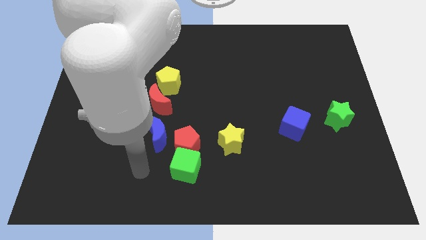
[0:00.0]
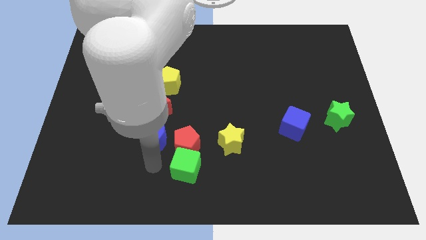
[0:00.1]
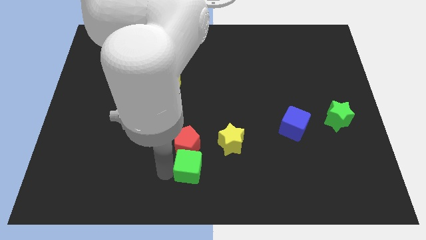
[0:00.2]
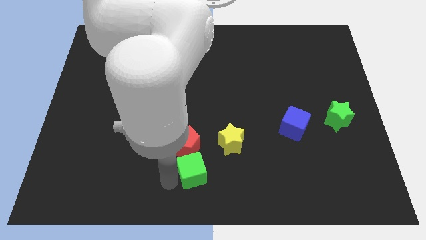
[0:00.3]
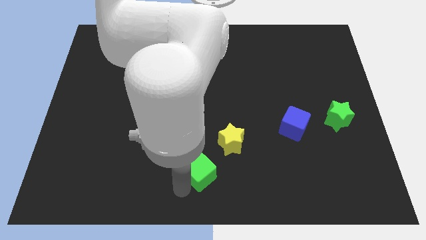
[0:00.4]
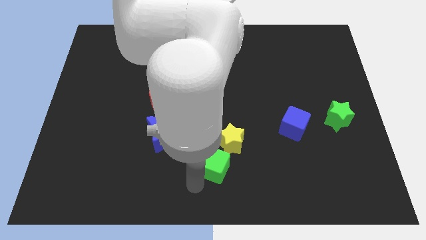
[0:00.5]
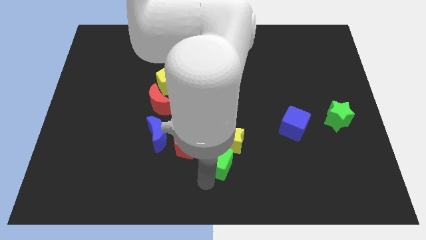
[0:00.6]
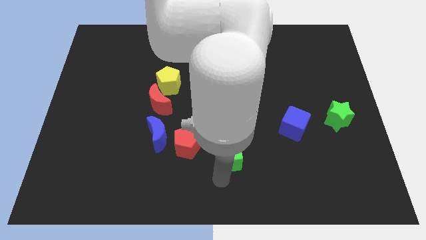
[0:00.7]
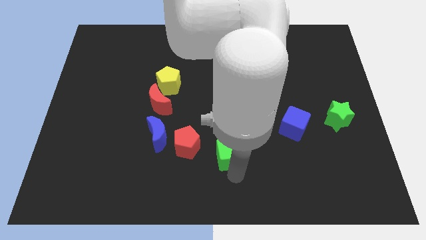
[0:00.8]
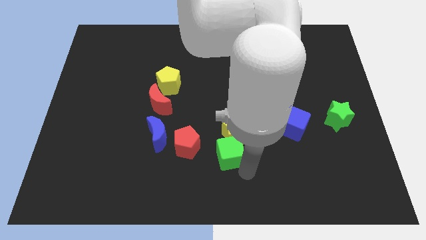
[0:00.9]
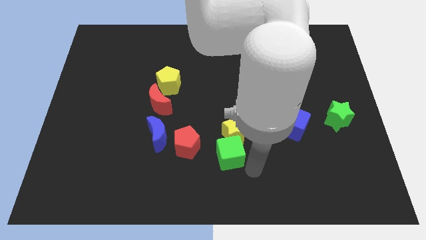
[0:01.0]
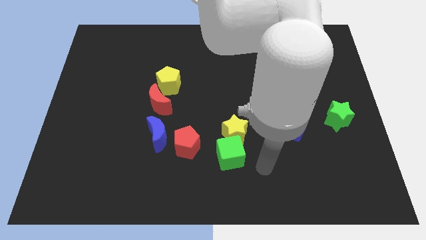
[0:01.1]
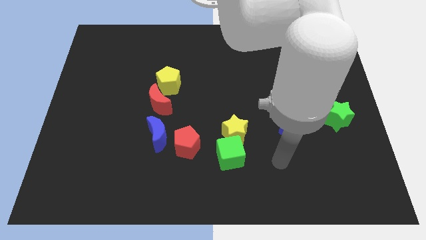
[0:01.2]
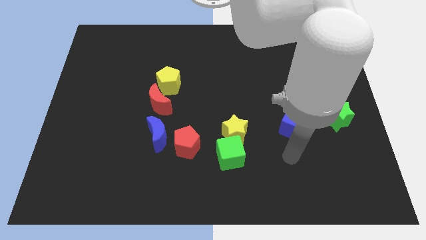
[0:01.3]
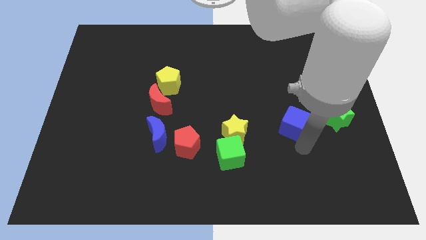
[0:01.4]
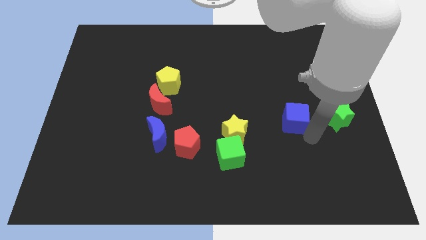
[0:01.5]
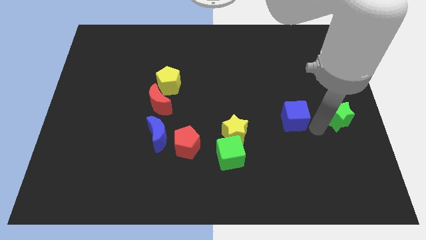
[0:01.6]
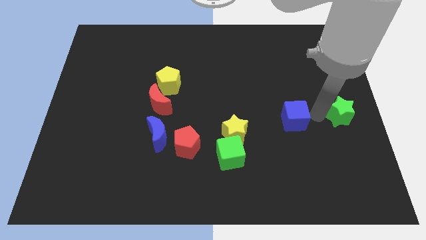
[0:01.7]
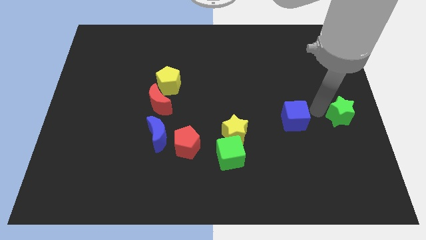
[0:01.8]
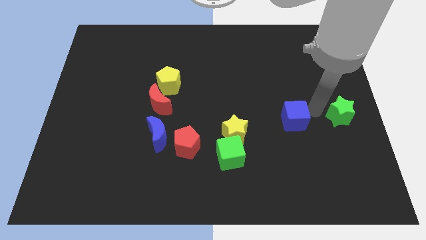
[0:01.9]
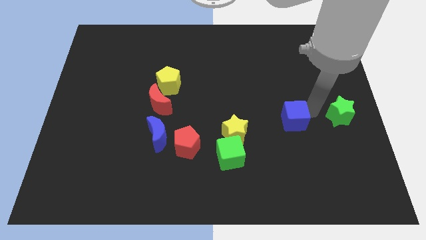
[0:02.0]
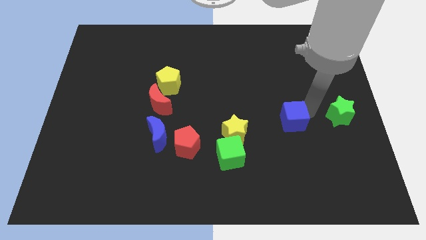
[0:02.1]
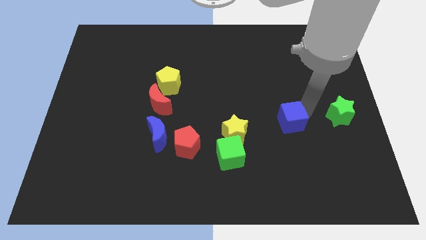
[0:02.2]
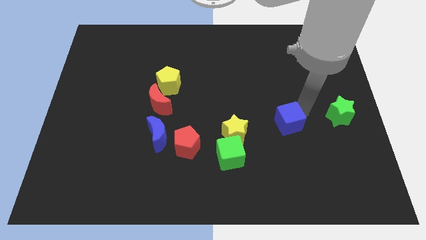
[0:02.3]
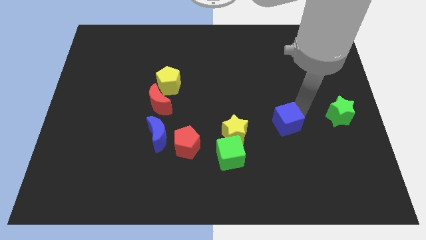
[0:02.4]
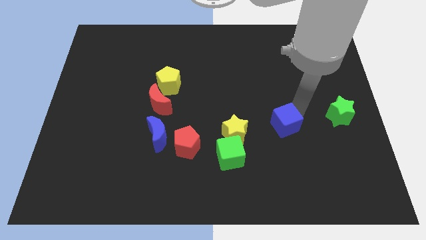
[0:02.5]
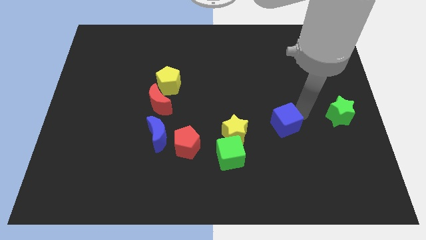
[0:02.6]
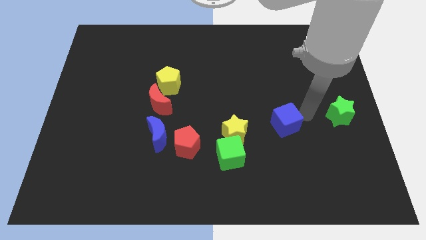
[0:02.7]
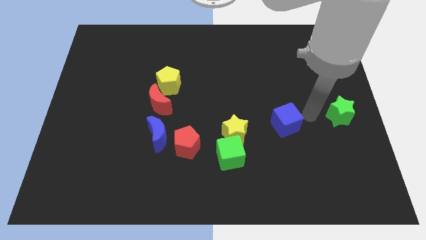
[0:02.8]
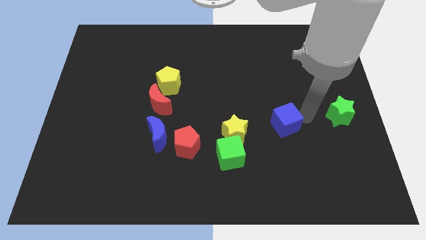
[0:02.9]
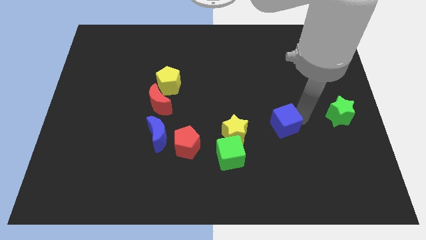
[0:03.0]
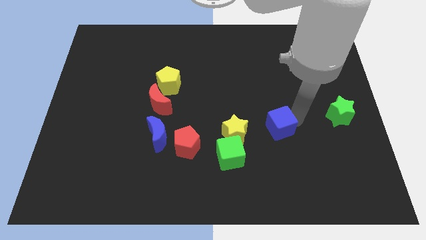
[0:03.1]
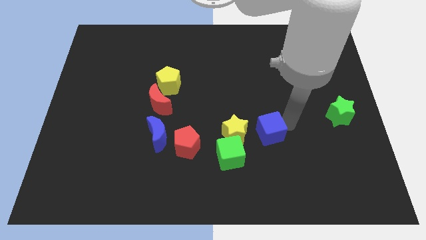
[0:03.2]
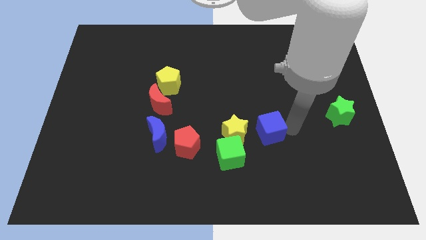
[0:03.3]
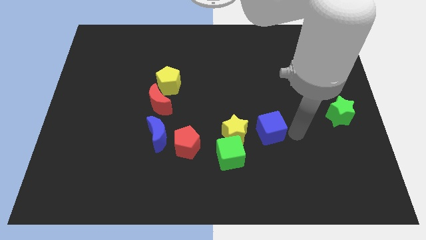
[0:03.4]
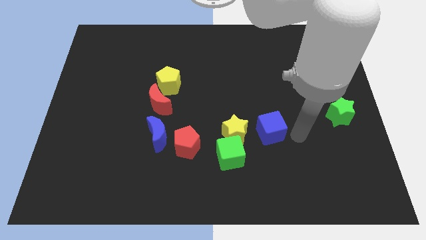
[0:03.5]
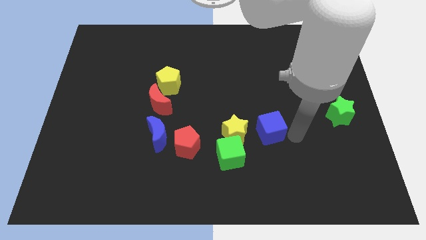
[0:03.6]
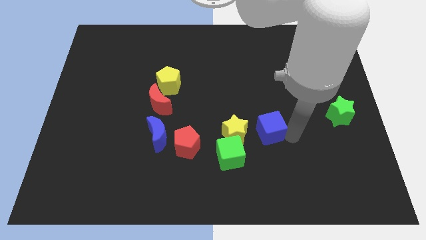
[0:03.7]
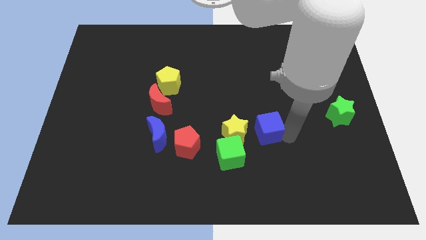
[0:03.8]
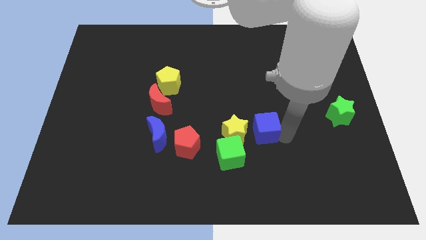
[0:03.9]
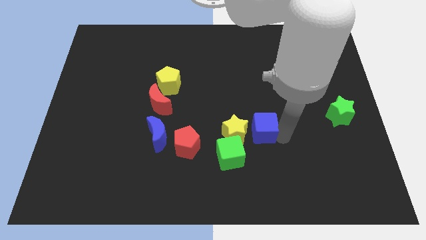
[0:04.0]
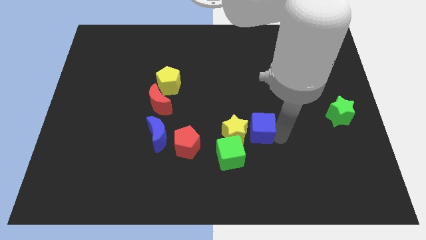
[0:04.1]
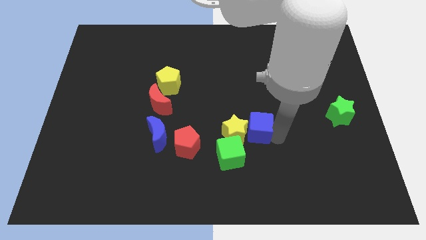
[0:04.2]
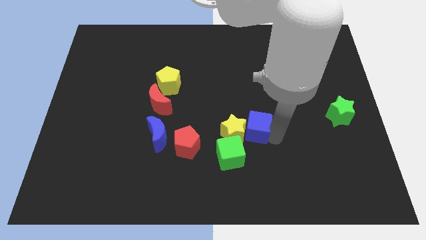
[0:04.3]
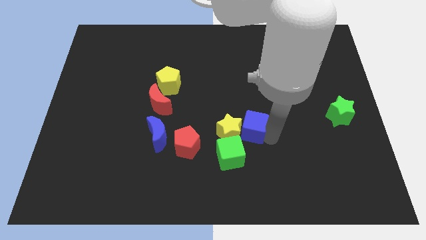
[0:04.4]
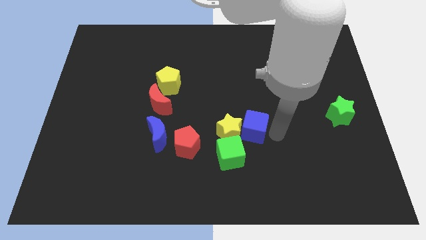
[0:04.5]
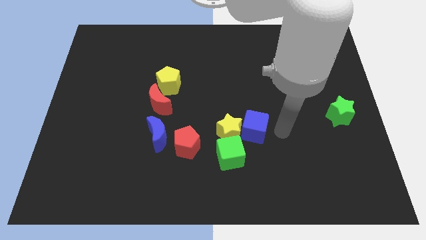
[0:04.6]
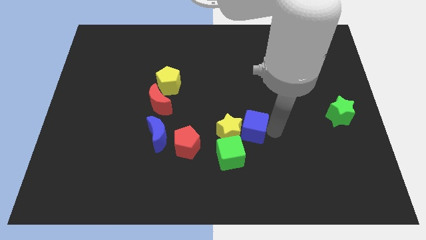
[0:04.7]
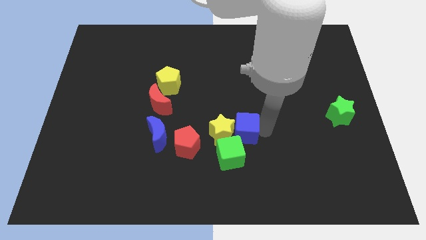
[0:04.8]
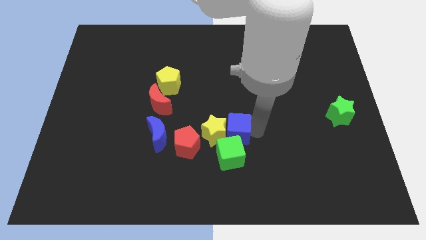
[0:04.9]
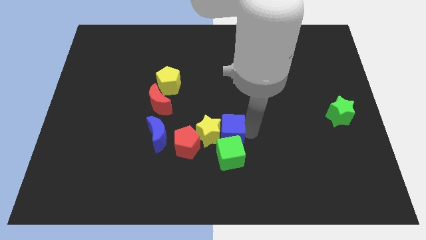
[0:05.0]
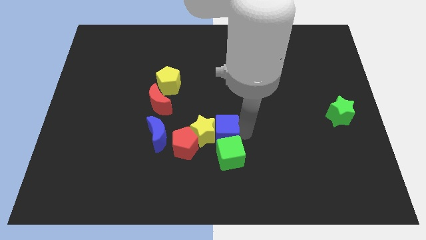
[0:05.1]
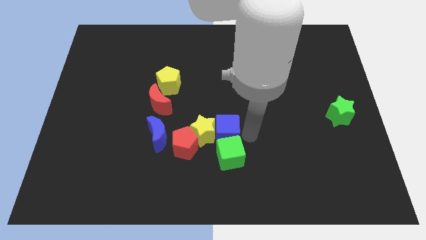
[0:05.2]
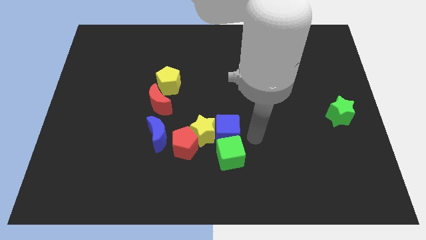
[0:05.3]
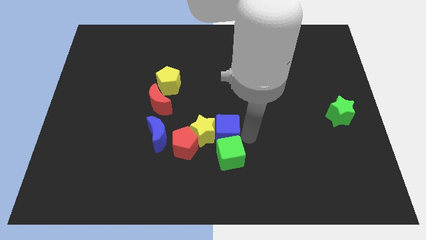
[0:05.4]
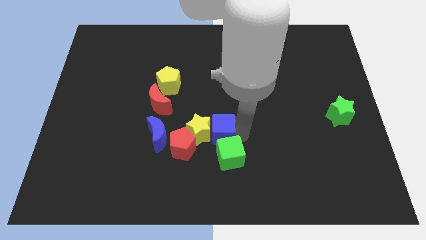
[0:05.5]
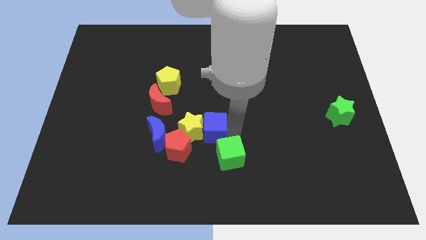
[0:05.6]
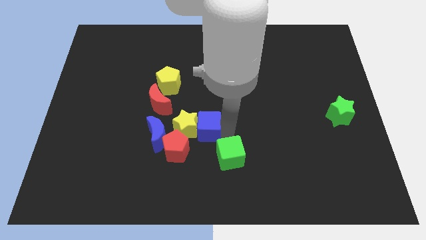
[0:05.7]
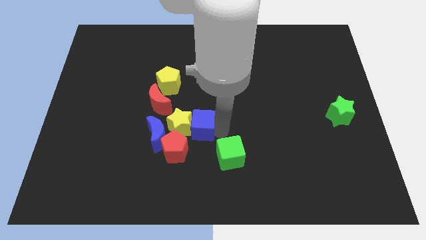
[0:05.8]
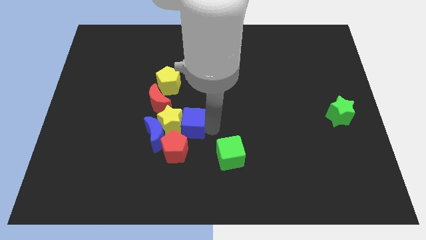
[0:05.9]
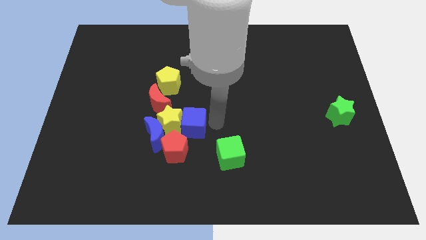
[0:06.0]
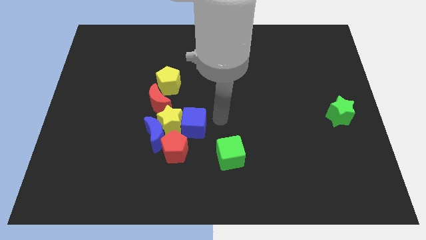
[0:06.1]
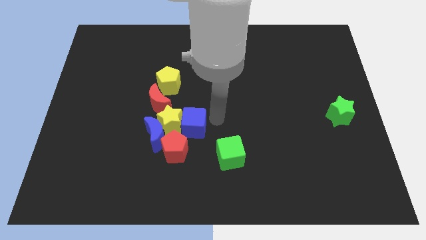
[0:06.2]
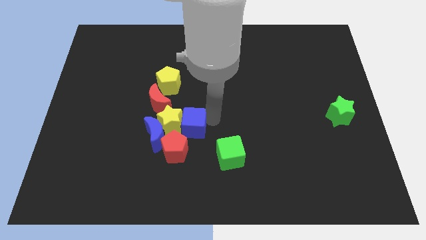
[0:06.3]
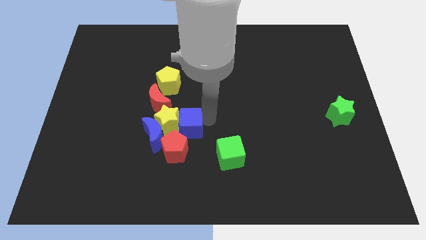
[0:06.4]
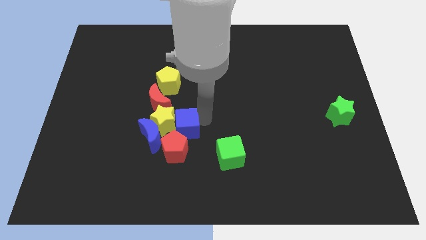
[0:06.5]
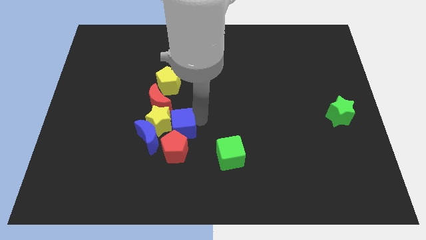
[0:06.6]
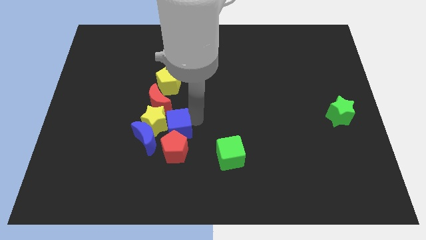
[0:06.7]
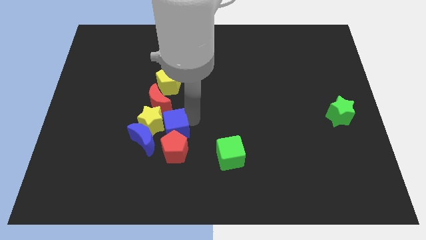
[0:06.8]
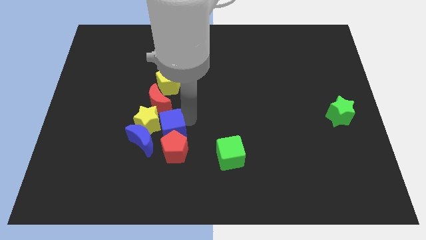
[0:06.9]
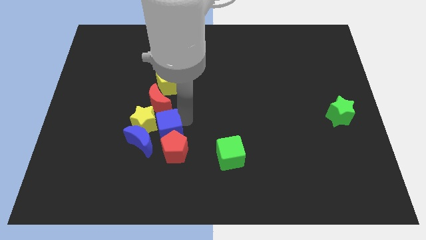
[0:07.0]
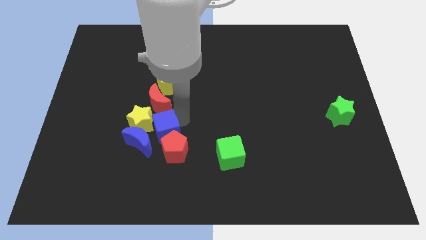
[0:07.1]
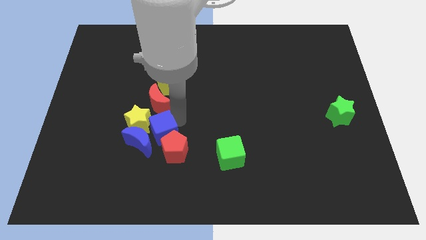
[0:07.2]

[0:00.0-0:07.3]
move the blue cube towards the blue moon
